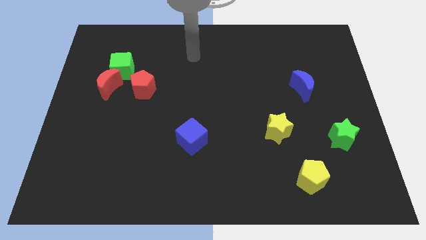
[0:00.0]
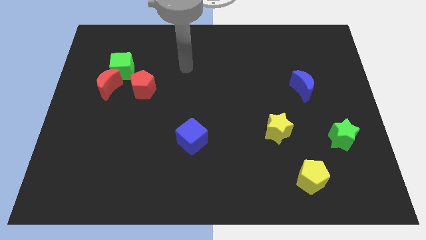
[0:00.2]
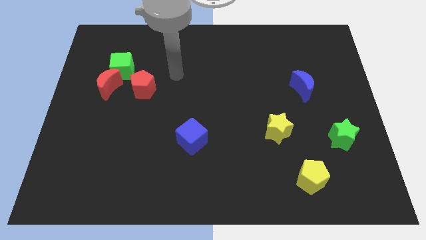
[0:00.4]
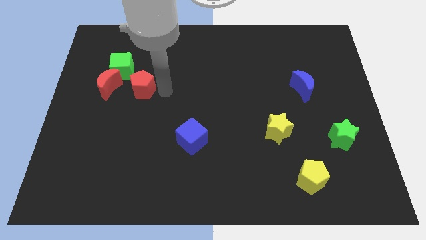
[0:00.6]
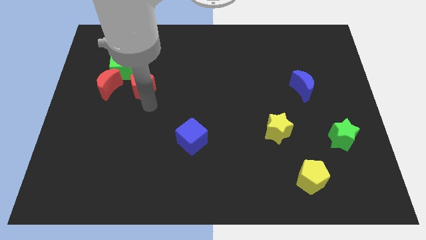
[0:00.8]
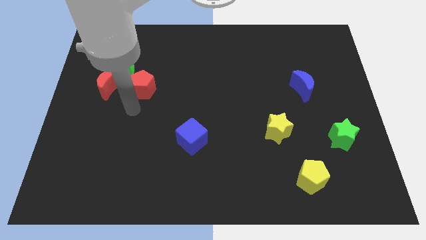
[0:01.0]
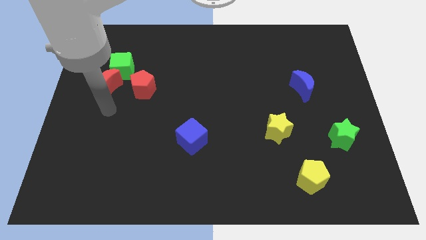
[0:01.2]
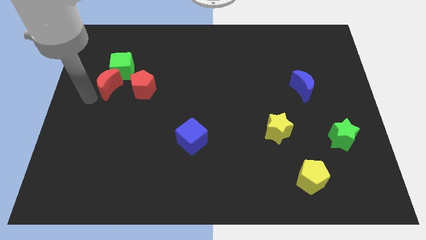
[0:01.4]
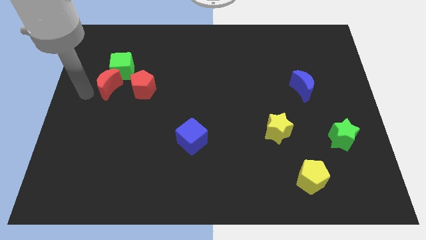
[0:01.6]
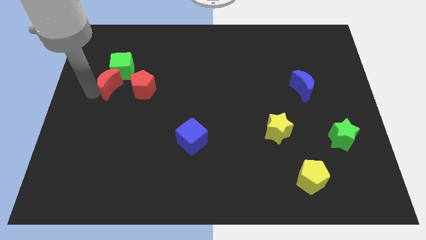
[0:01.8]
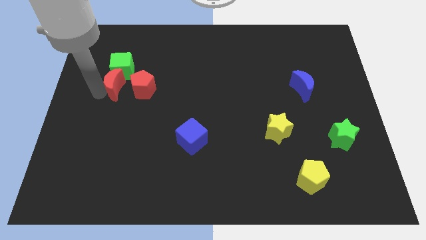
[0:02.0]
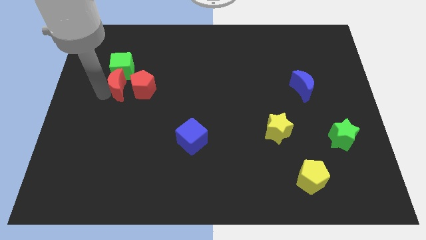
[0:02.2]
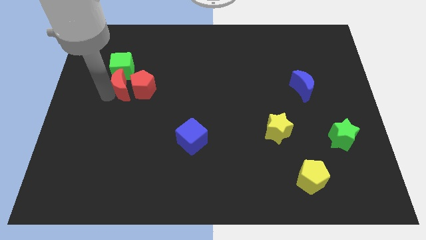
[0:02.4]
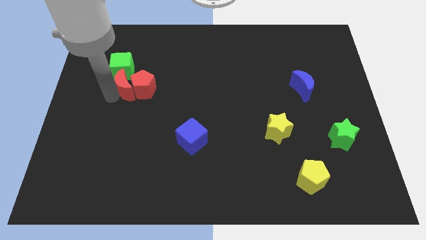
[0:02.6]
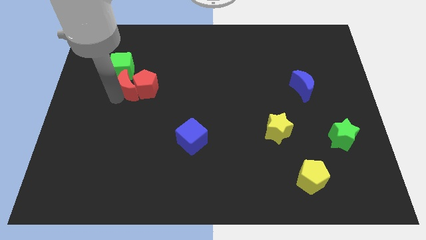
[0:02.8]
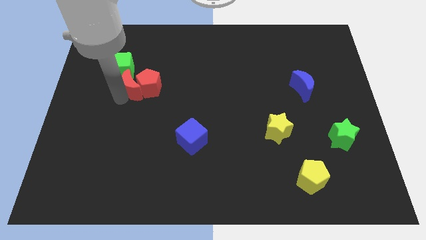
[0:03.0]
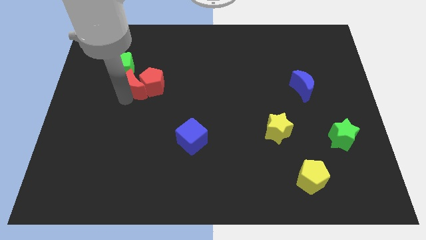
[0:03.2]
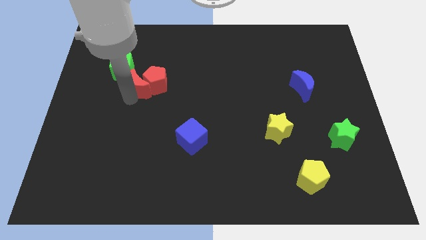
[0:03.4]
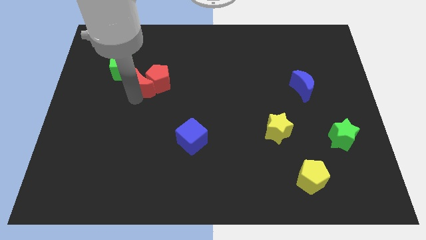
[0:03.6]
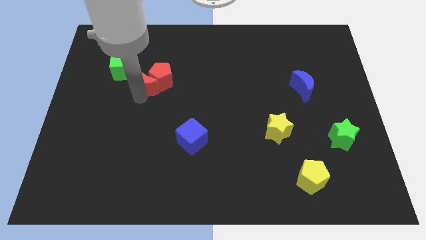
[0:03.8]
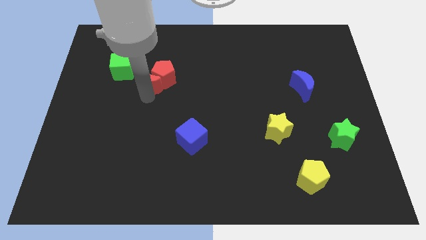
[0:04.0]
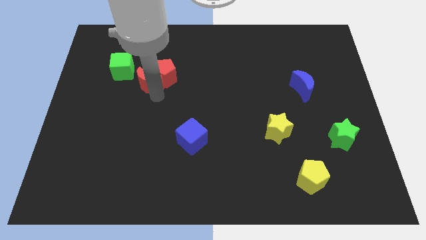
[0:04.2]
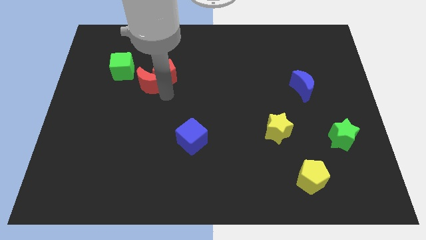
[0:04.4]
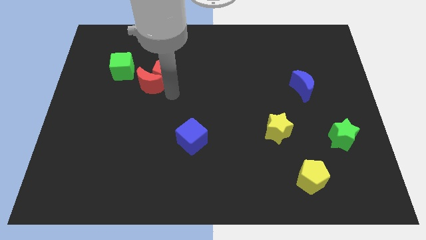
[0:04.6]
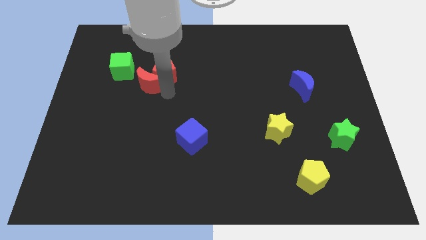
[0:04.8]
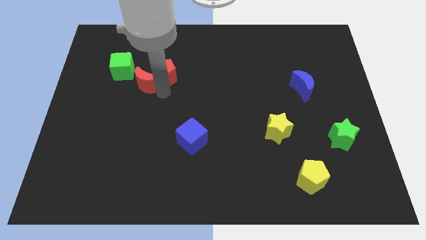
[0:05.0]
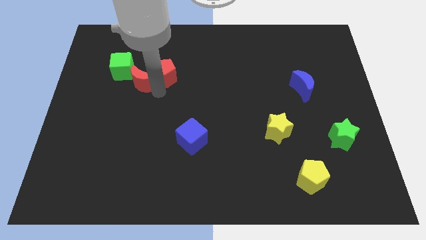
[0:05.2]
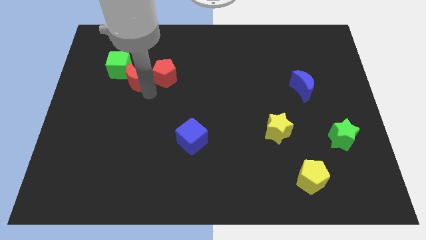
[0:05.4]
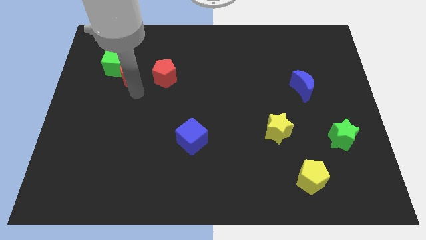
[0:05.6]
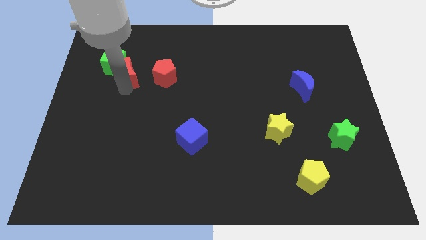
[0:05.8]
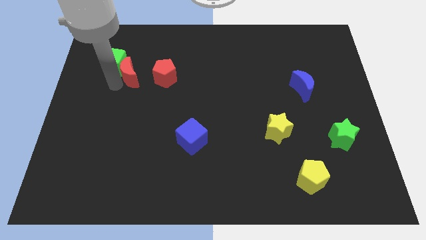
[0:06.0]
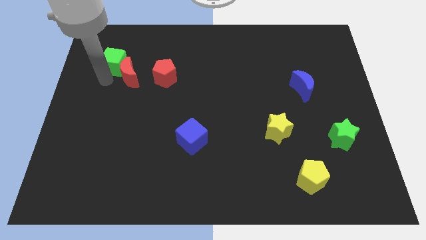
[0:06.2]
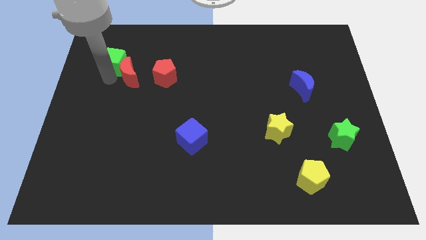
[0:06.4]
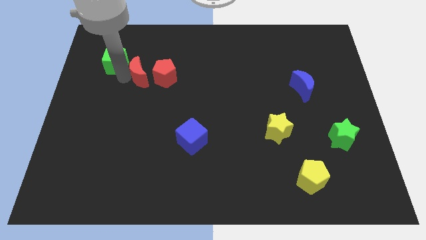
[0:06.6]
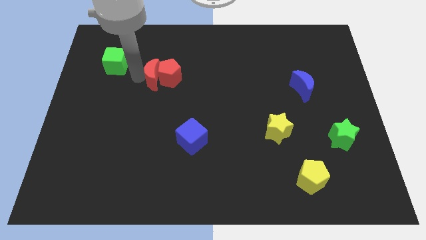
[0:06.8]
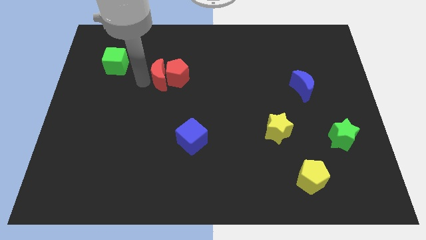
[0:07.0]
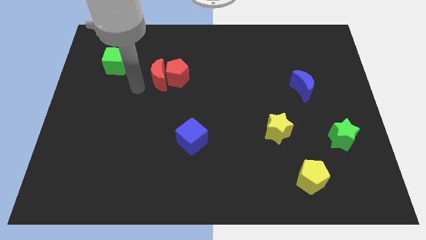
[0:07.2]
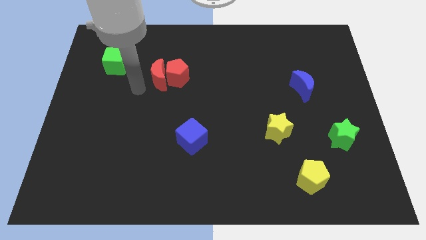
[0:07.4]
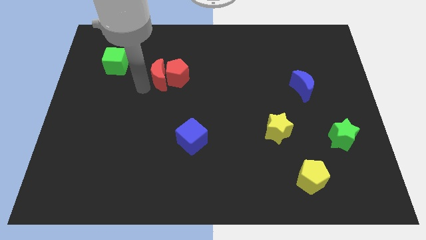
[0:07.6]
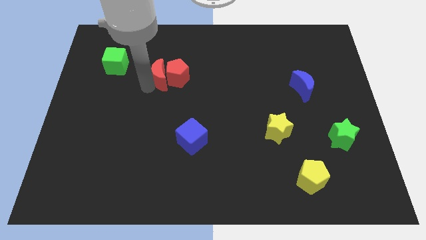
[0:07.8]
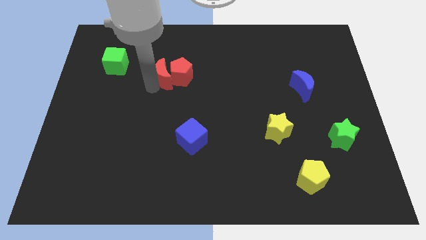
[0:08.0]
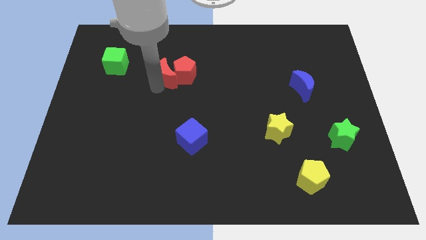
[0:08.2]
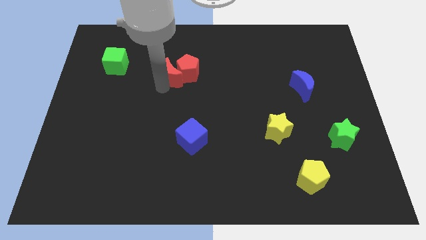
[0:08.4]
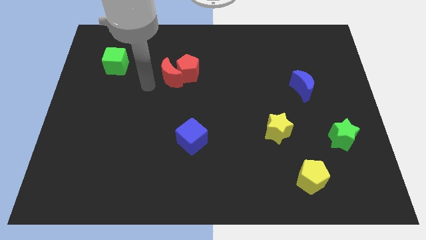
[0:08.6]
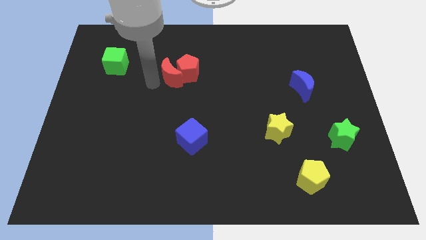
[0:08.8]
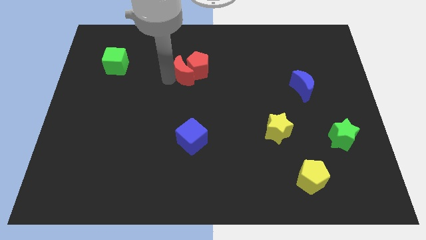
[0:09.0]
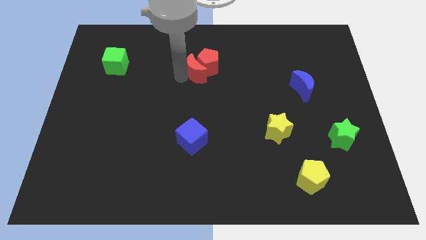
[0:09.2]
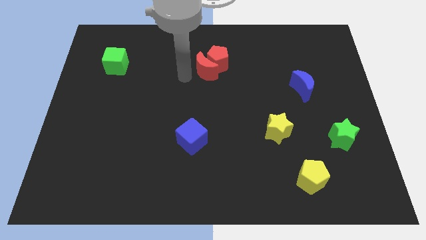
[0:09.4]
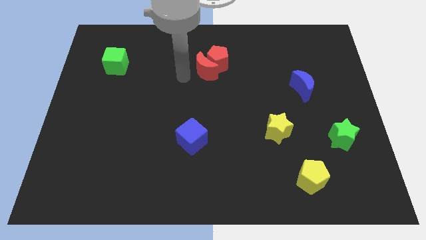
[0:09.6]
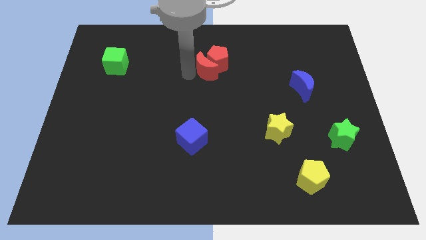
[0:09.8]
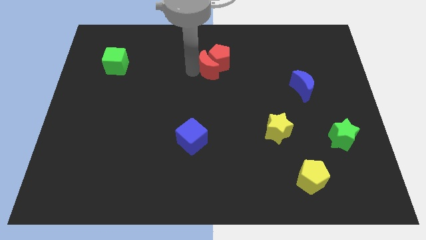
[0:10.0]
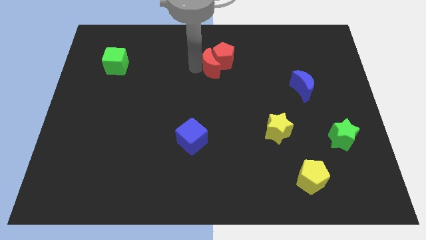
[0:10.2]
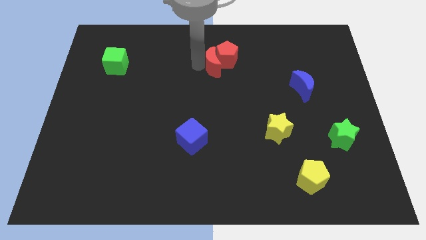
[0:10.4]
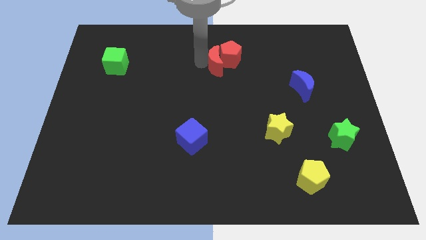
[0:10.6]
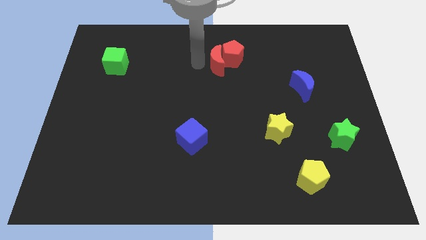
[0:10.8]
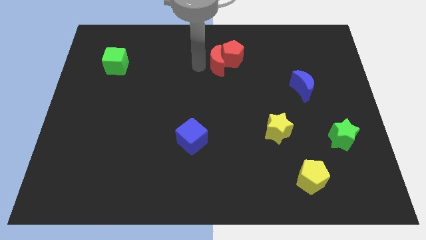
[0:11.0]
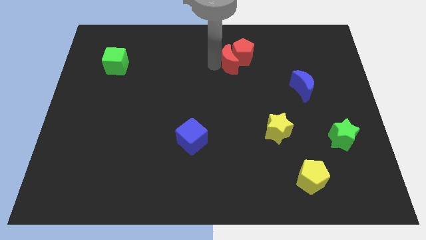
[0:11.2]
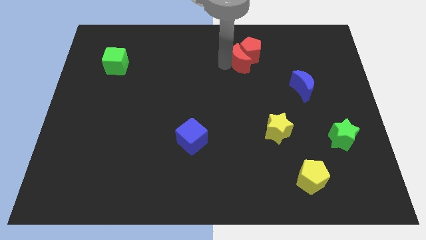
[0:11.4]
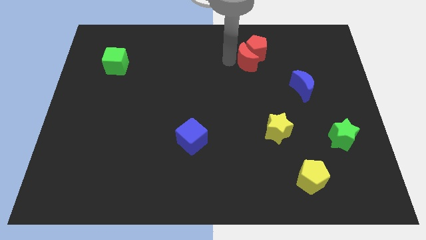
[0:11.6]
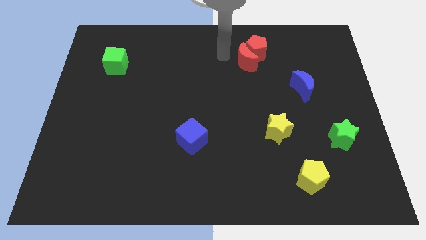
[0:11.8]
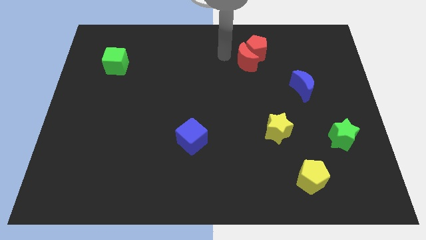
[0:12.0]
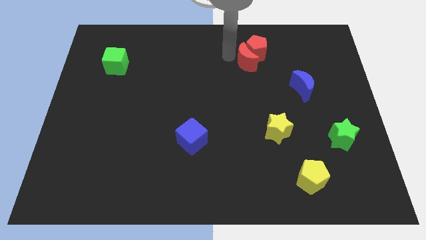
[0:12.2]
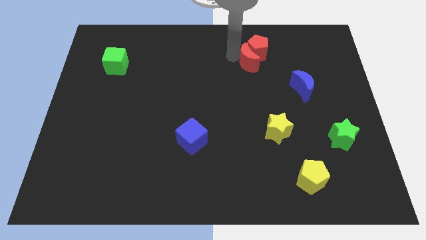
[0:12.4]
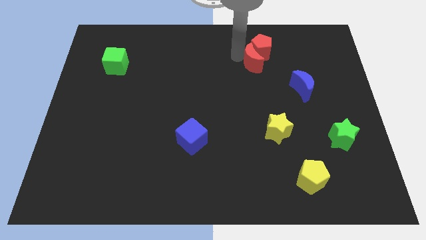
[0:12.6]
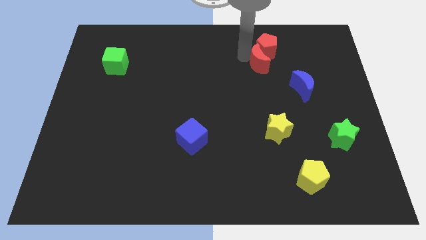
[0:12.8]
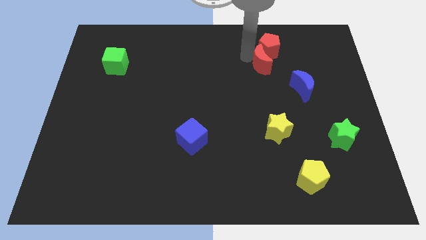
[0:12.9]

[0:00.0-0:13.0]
put the red moon diagonally up and to the left of the blue moon
